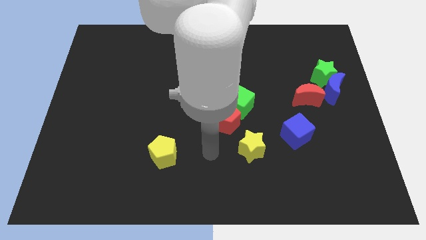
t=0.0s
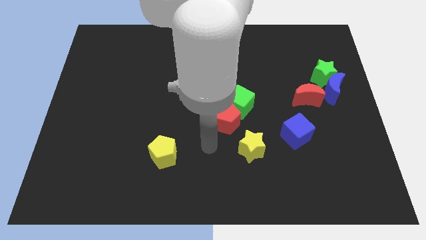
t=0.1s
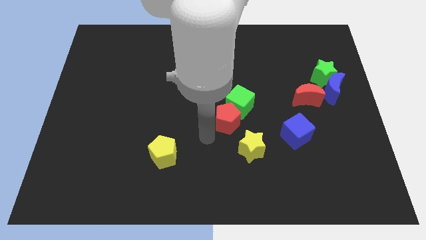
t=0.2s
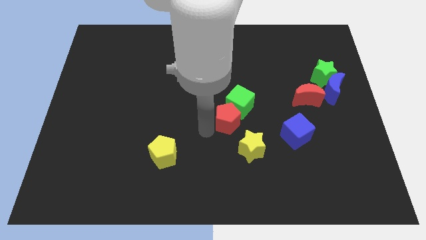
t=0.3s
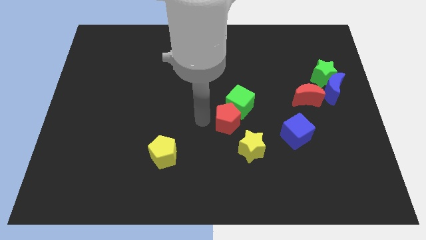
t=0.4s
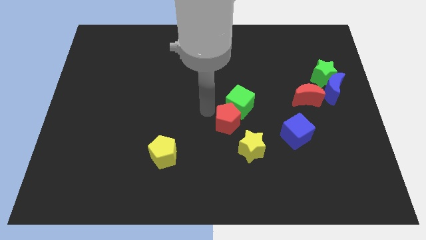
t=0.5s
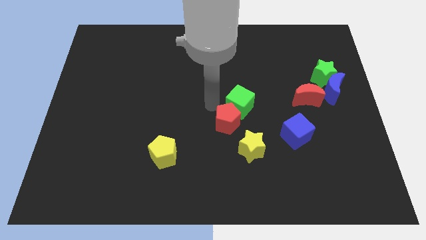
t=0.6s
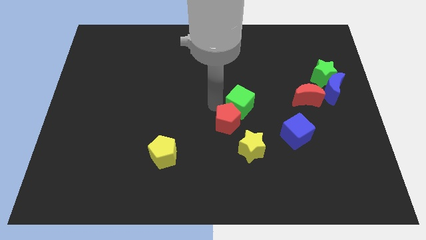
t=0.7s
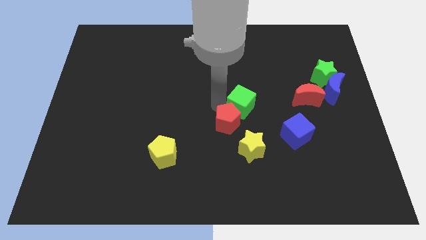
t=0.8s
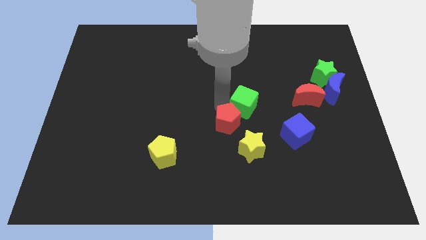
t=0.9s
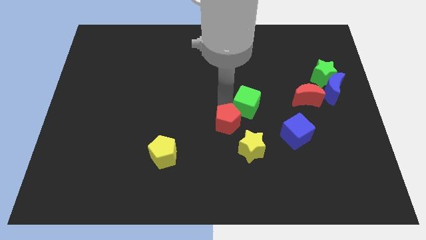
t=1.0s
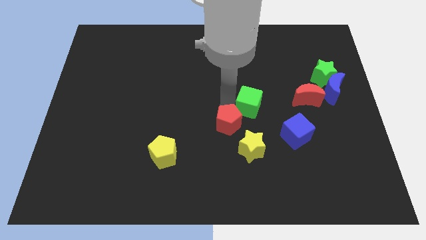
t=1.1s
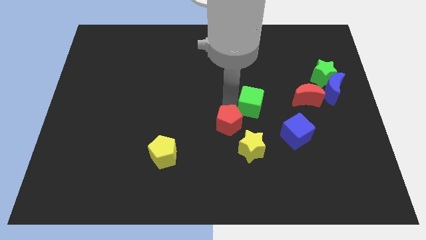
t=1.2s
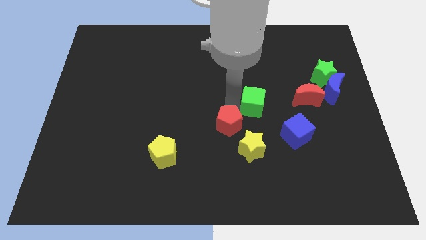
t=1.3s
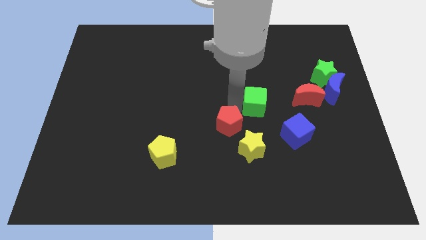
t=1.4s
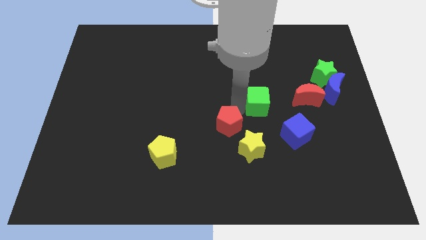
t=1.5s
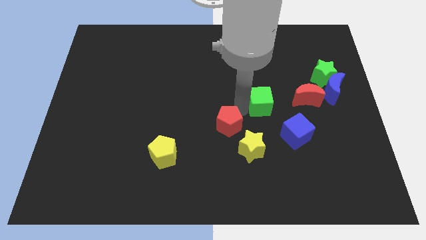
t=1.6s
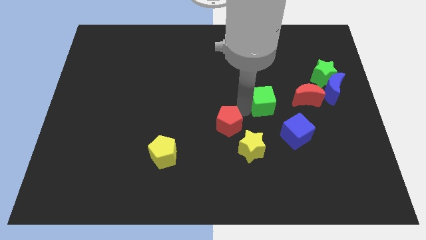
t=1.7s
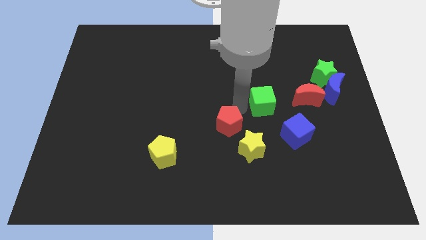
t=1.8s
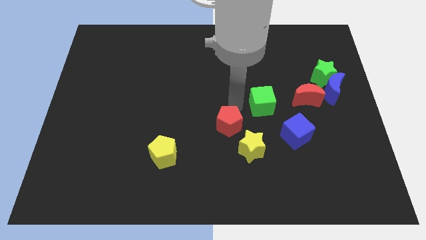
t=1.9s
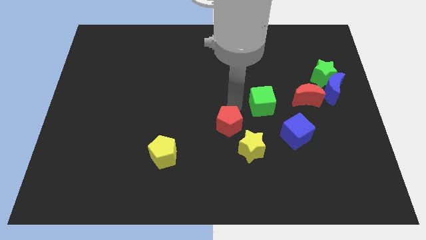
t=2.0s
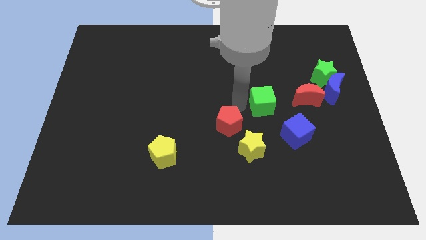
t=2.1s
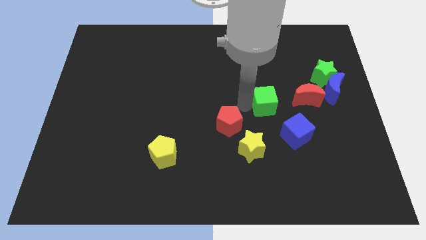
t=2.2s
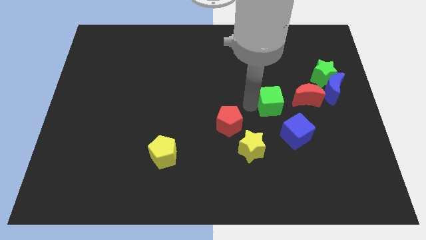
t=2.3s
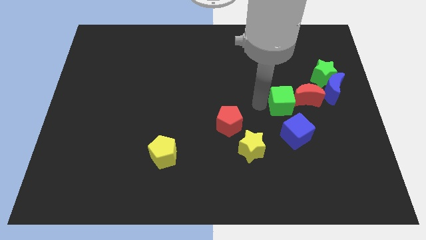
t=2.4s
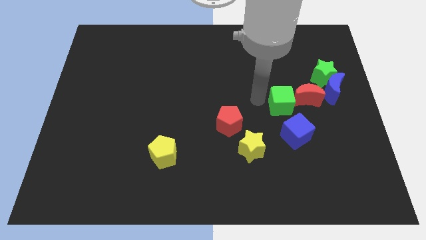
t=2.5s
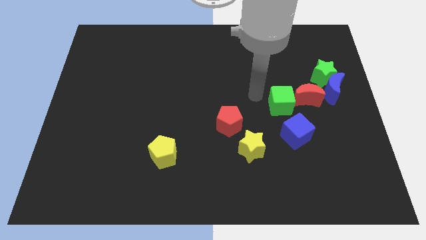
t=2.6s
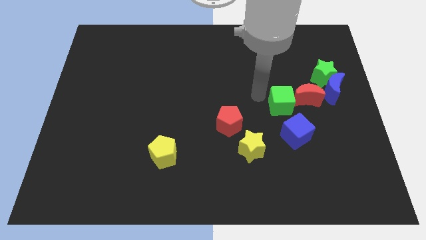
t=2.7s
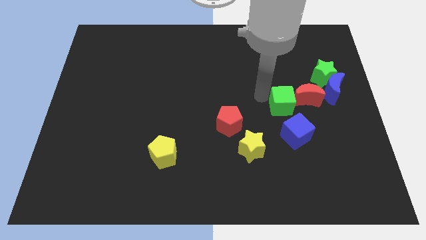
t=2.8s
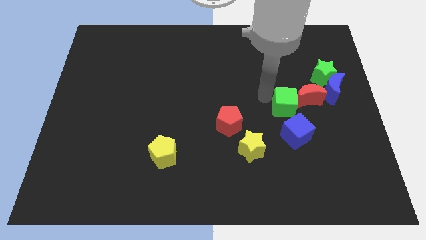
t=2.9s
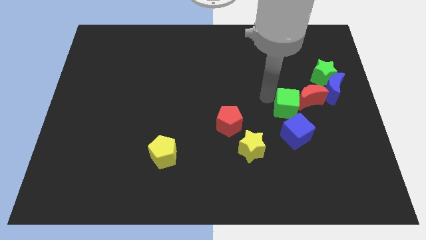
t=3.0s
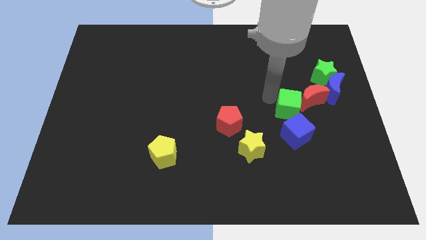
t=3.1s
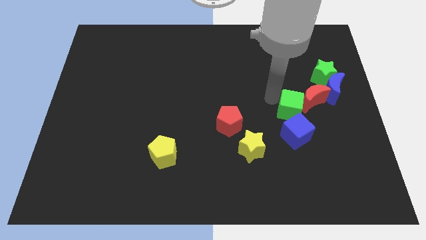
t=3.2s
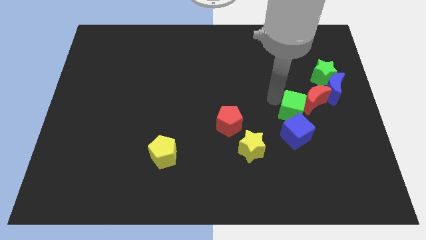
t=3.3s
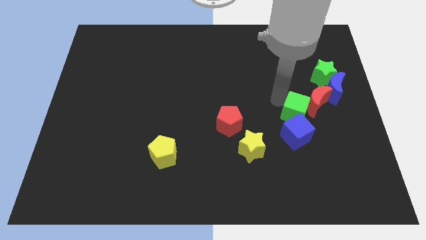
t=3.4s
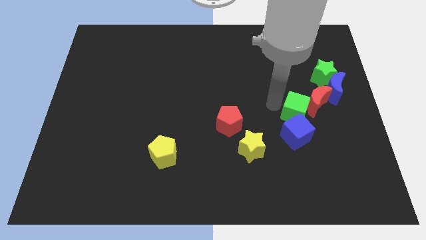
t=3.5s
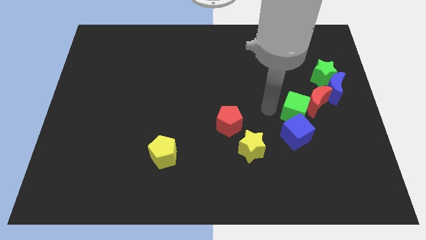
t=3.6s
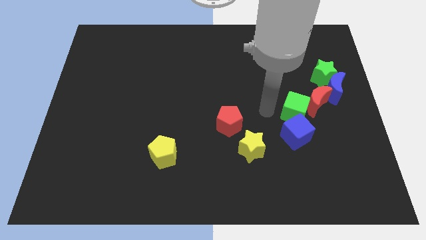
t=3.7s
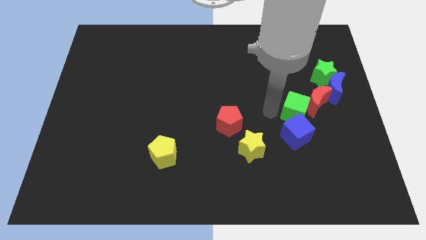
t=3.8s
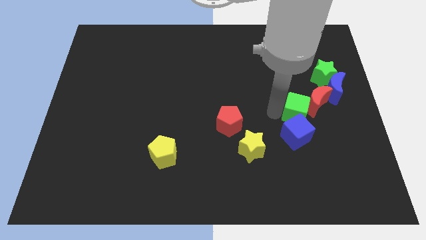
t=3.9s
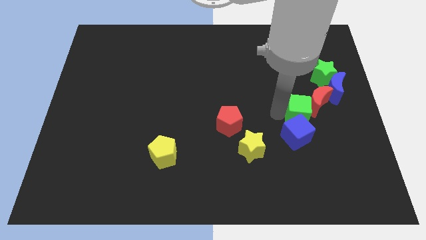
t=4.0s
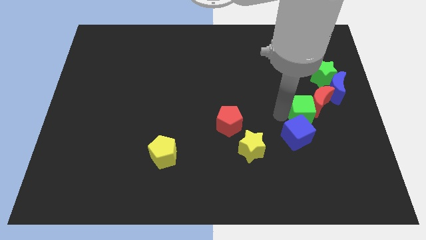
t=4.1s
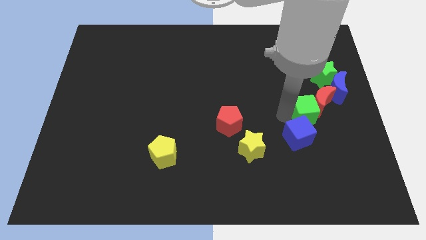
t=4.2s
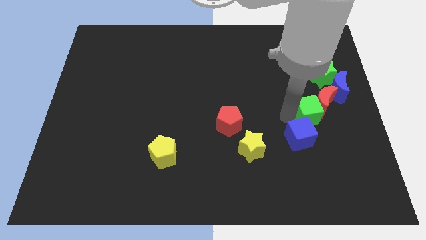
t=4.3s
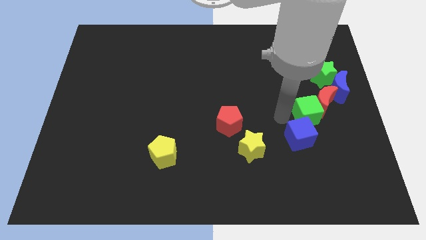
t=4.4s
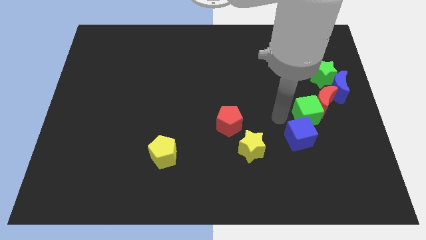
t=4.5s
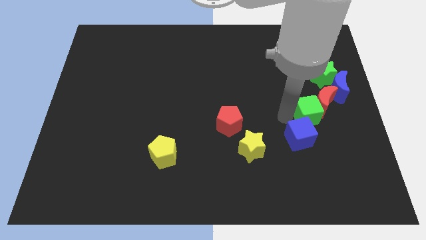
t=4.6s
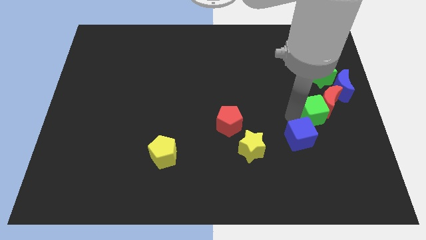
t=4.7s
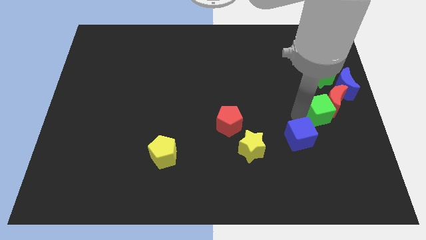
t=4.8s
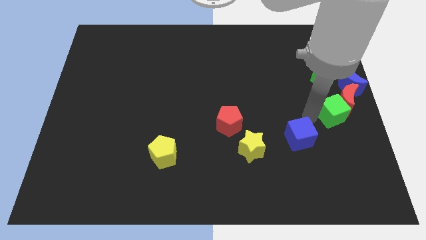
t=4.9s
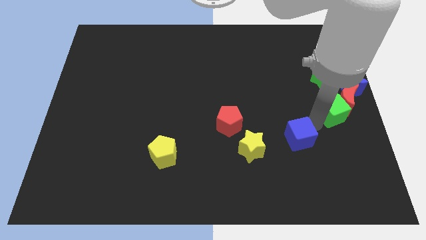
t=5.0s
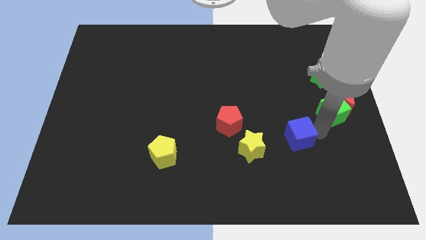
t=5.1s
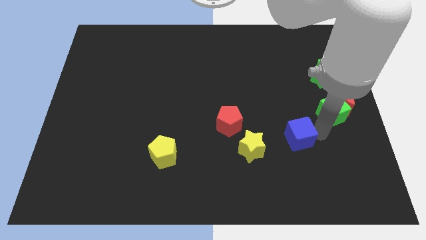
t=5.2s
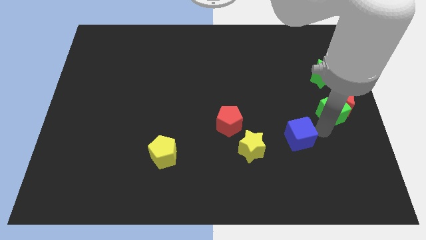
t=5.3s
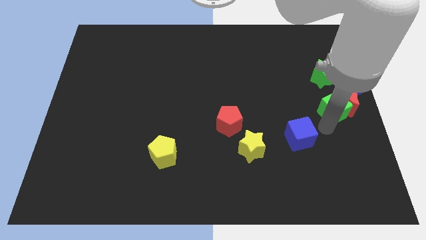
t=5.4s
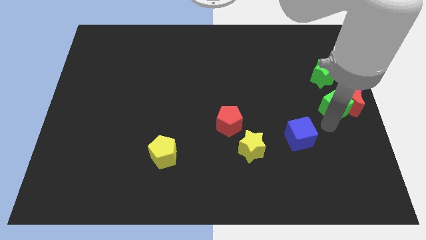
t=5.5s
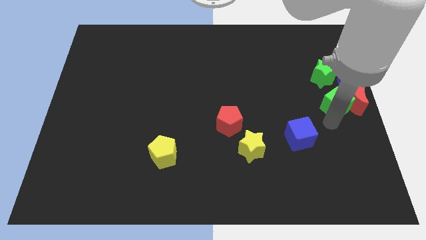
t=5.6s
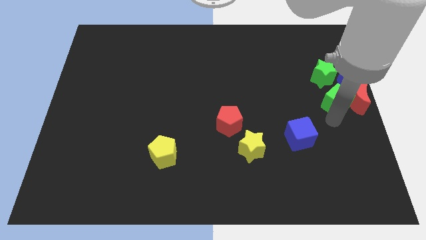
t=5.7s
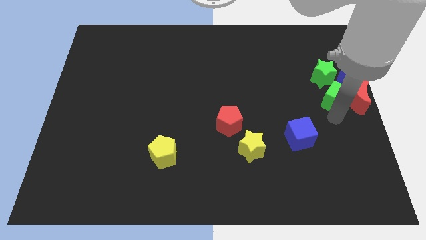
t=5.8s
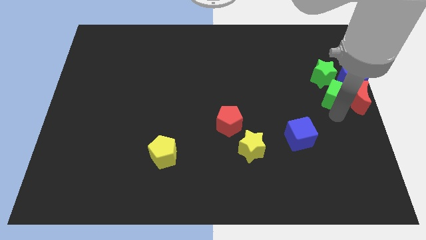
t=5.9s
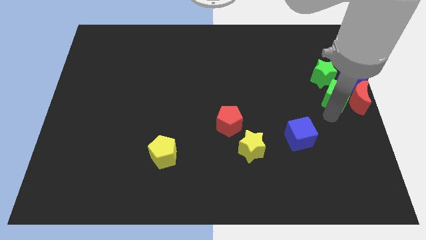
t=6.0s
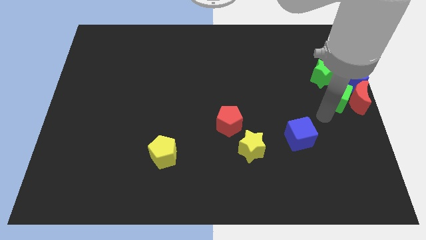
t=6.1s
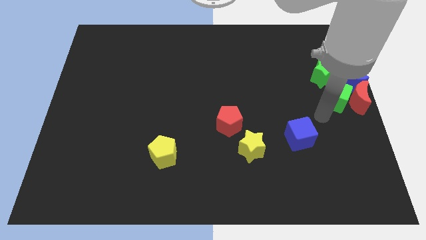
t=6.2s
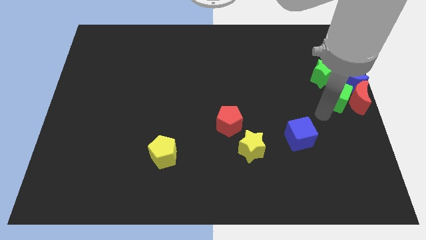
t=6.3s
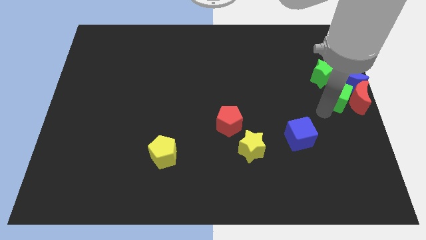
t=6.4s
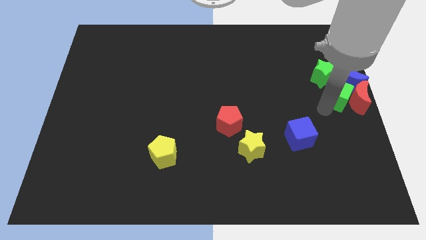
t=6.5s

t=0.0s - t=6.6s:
put the green cube close to the blue moon

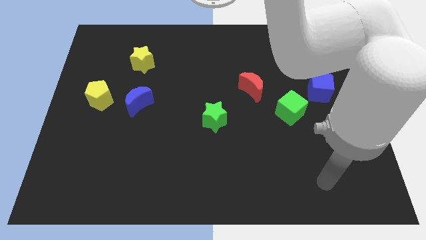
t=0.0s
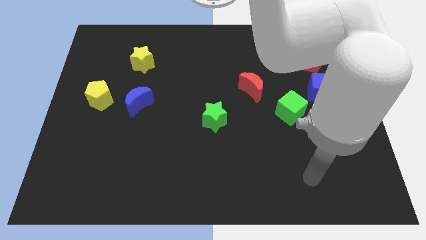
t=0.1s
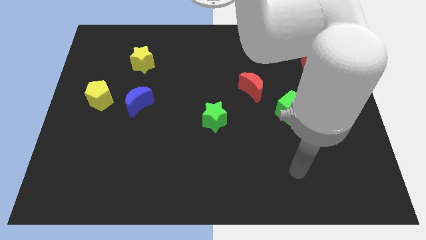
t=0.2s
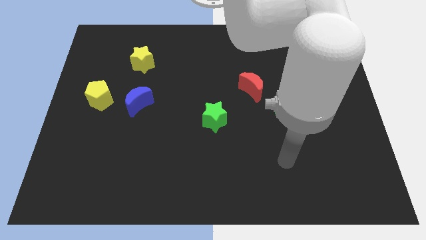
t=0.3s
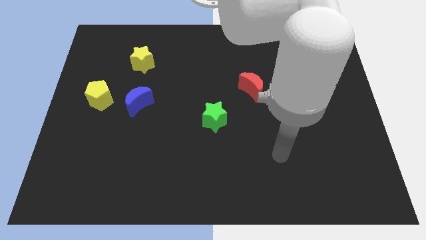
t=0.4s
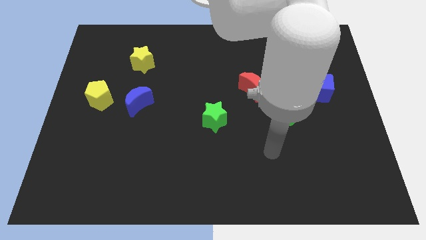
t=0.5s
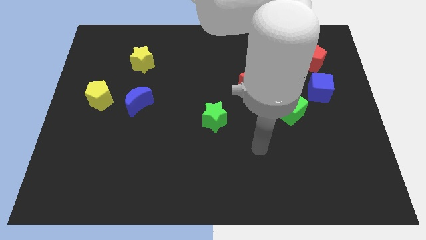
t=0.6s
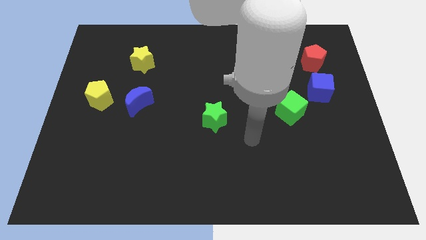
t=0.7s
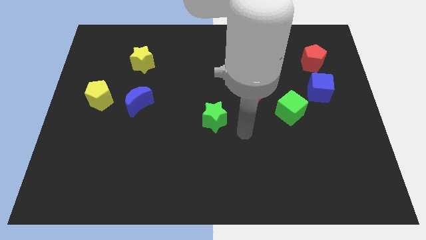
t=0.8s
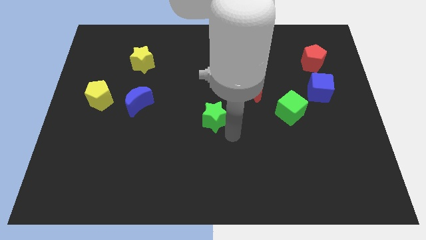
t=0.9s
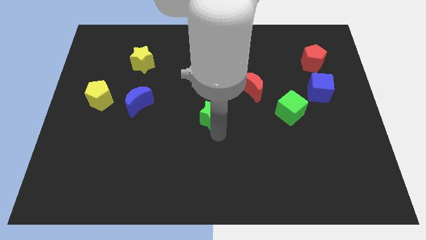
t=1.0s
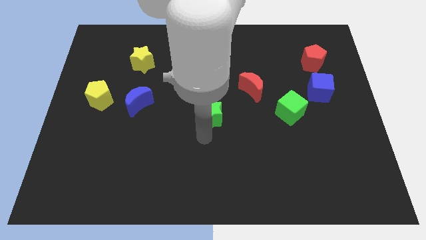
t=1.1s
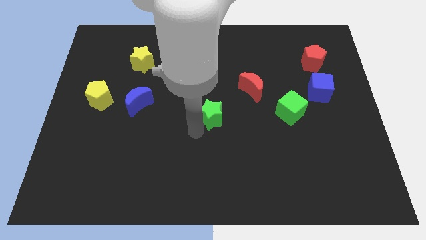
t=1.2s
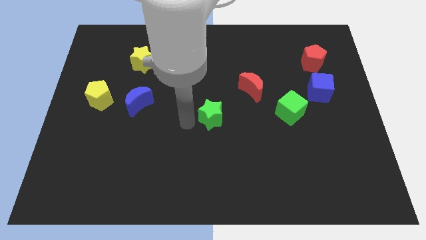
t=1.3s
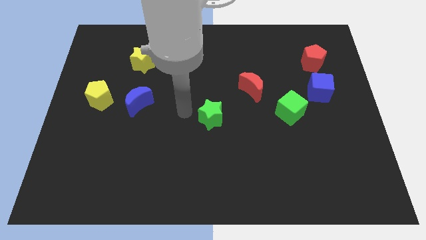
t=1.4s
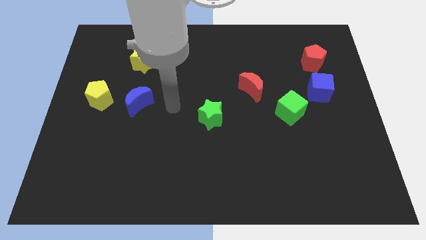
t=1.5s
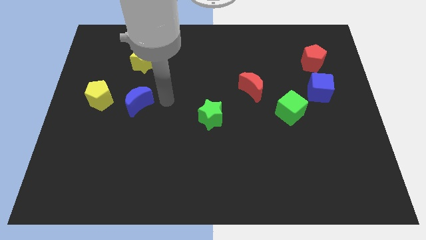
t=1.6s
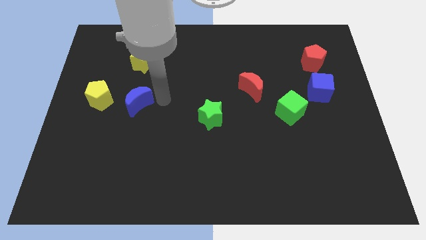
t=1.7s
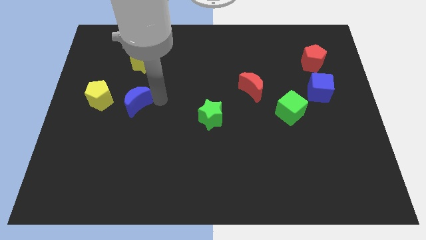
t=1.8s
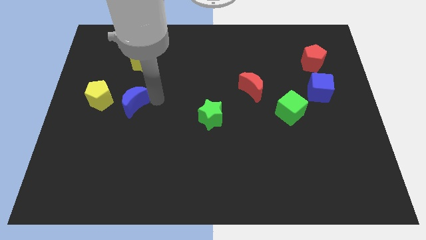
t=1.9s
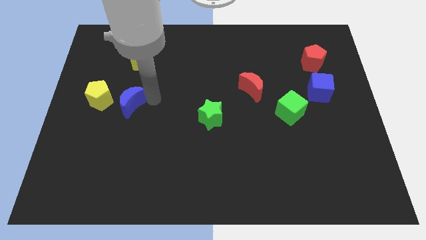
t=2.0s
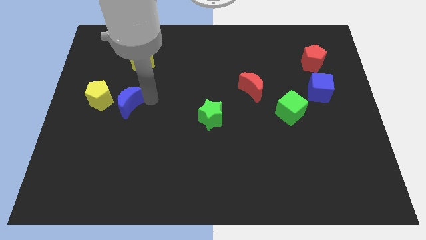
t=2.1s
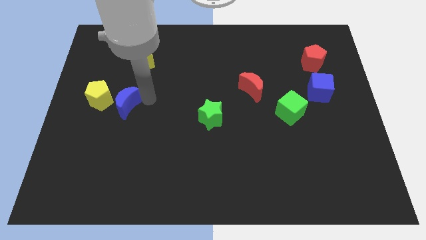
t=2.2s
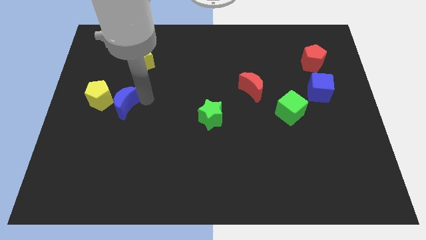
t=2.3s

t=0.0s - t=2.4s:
slide the blue moon close to the yellow pentagon
